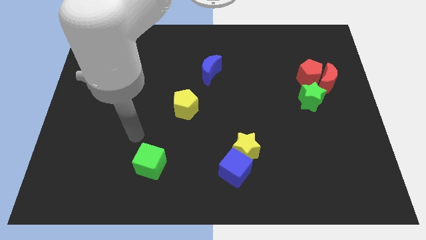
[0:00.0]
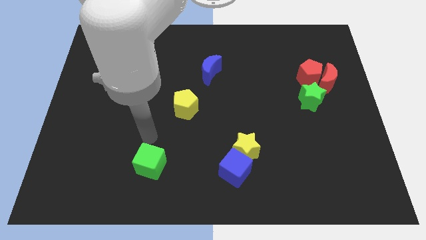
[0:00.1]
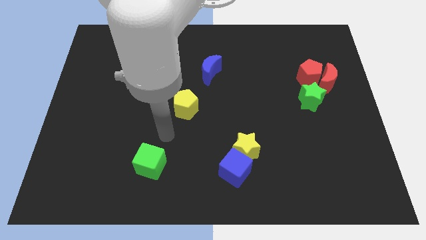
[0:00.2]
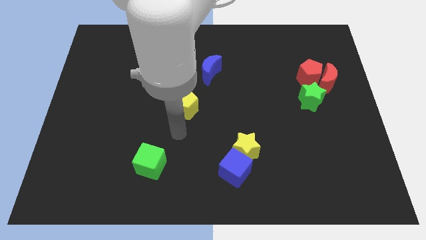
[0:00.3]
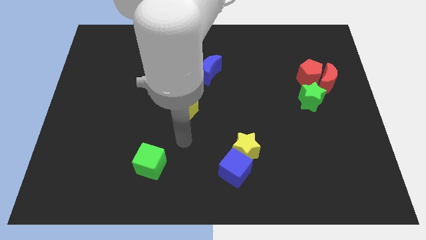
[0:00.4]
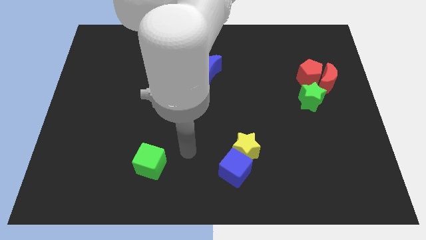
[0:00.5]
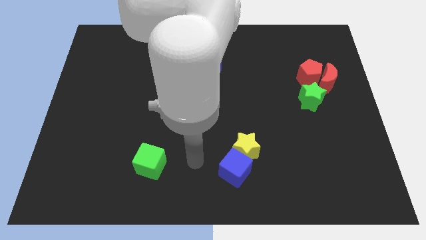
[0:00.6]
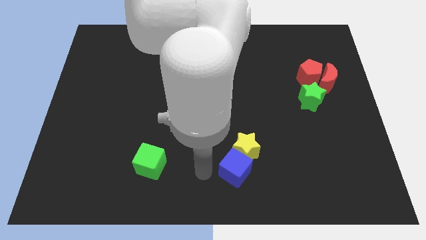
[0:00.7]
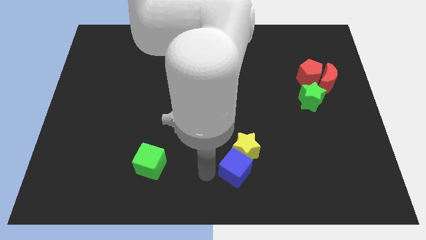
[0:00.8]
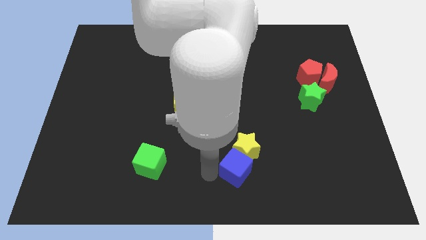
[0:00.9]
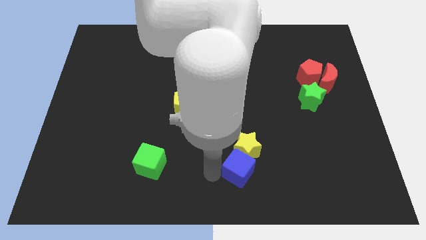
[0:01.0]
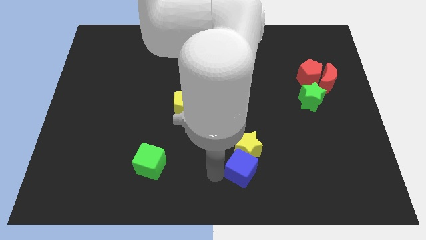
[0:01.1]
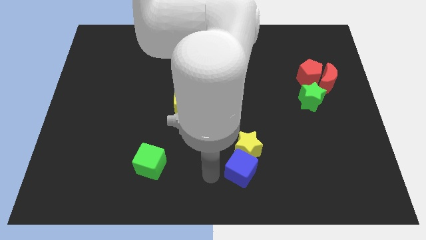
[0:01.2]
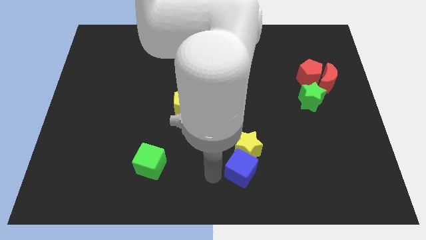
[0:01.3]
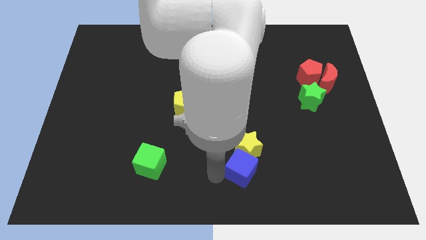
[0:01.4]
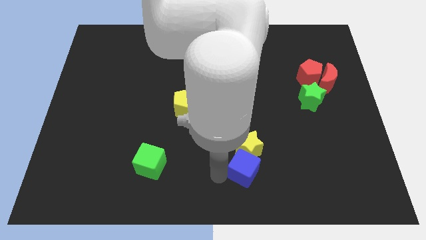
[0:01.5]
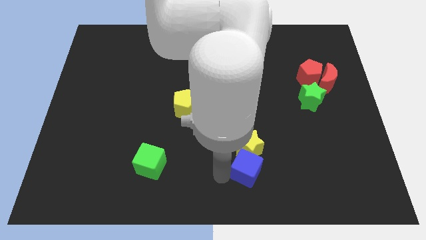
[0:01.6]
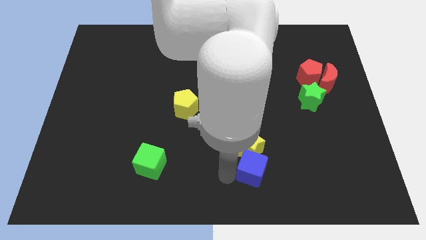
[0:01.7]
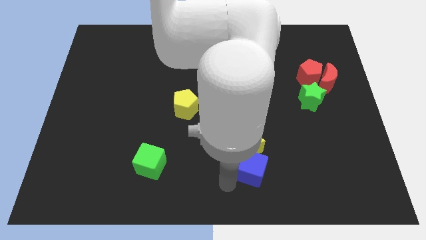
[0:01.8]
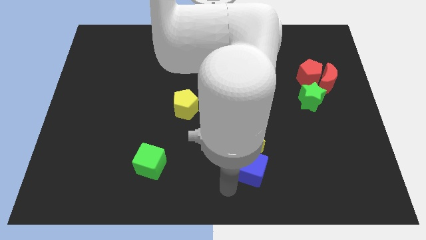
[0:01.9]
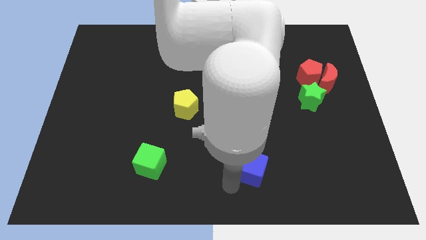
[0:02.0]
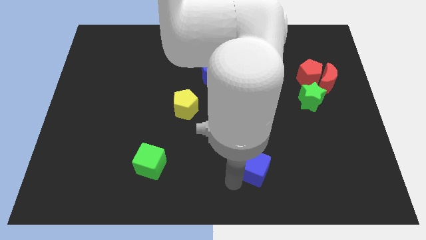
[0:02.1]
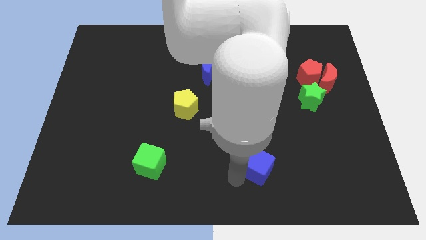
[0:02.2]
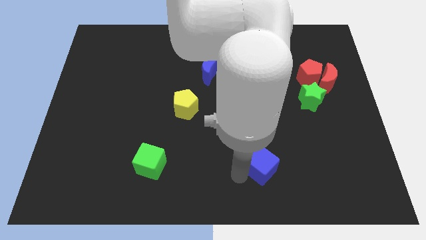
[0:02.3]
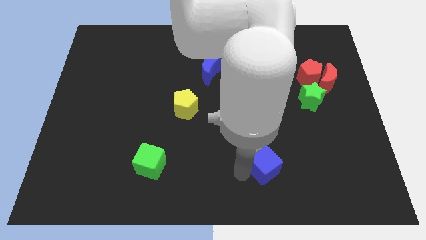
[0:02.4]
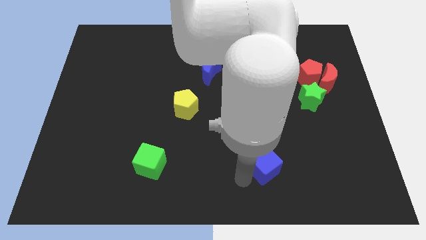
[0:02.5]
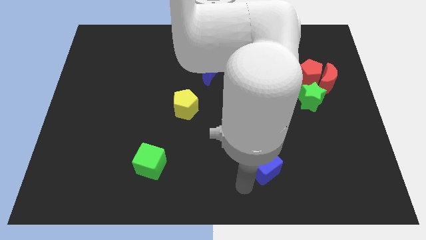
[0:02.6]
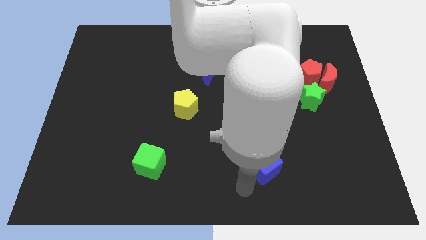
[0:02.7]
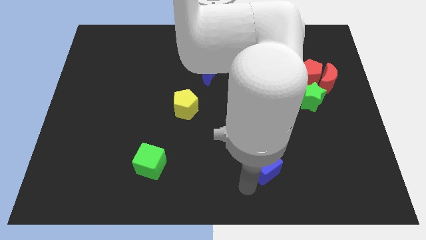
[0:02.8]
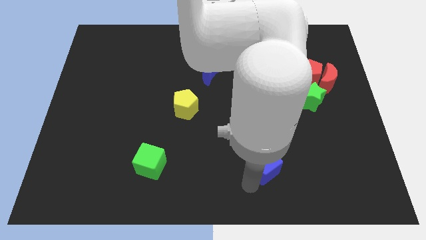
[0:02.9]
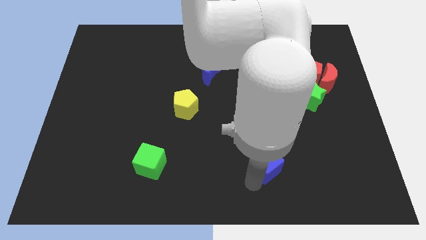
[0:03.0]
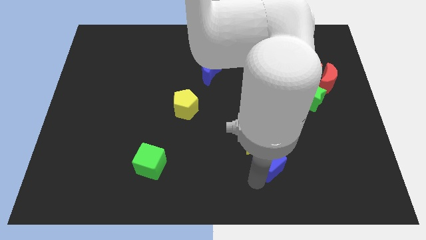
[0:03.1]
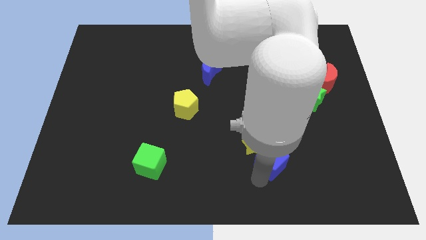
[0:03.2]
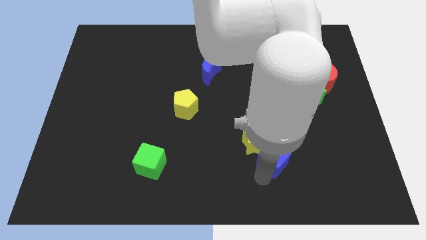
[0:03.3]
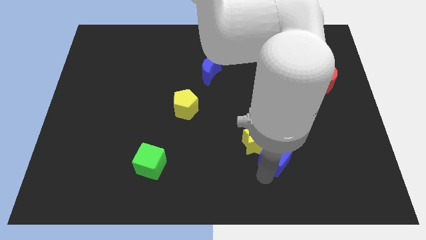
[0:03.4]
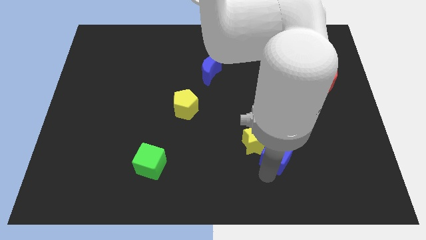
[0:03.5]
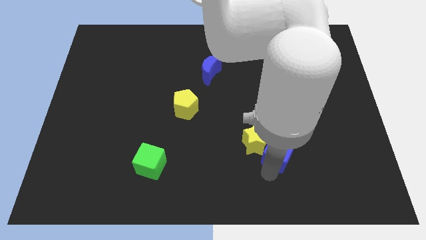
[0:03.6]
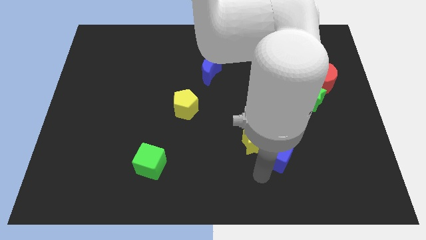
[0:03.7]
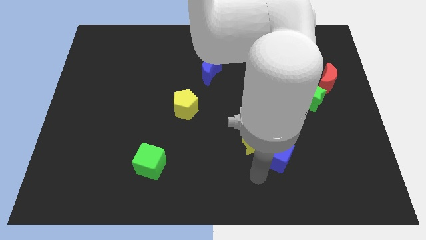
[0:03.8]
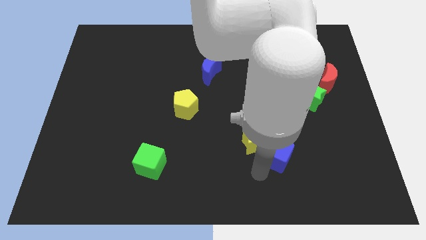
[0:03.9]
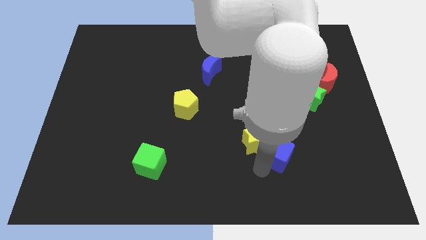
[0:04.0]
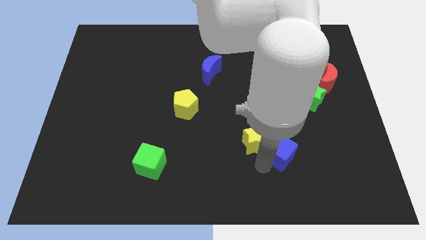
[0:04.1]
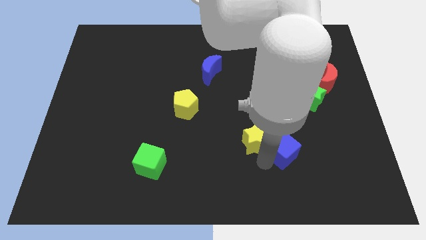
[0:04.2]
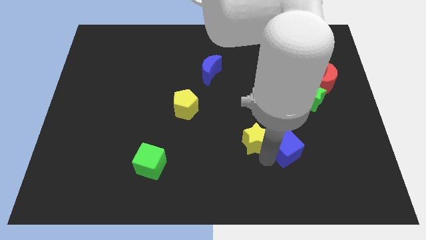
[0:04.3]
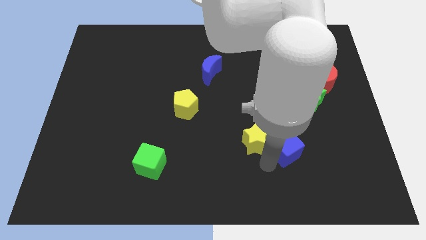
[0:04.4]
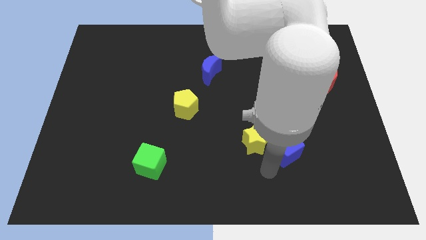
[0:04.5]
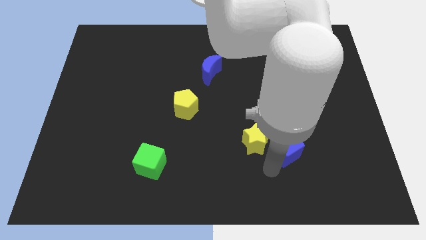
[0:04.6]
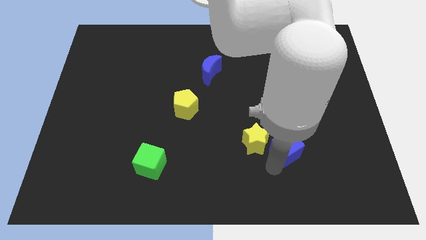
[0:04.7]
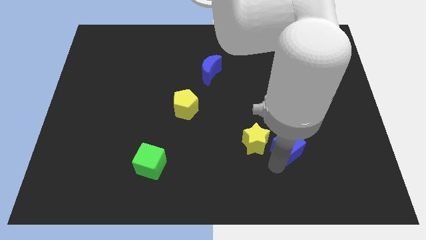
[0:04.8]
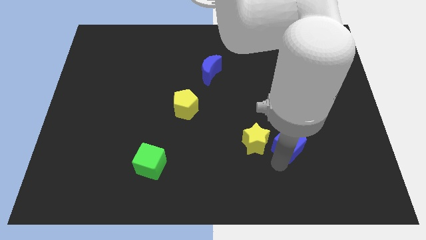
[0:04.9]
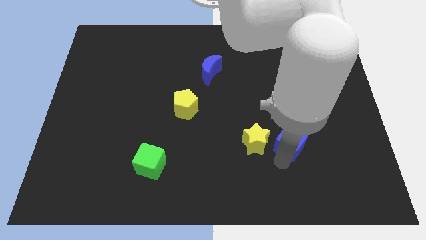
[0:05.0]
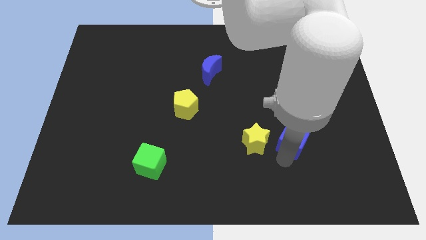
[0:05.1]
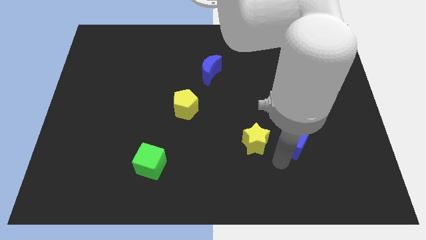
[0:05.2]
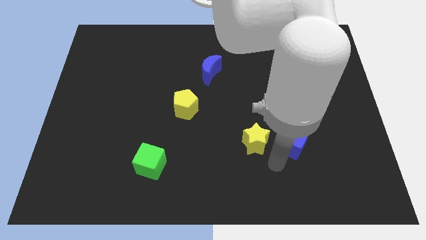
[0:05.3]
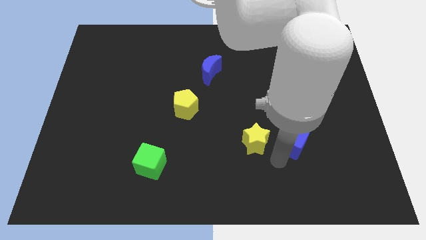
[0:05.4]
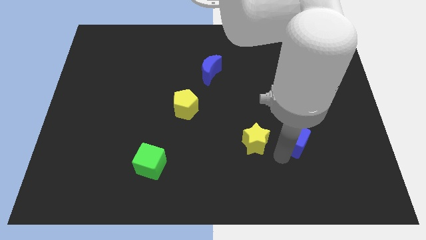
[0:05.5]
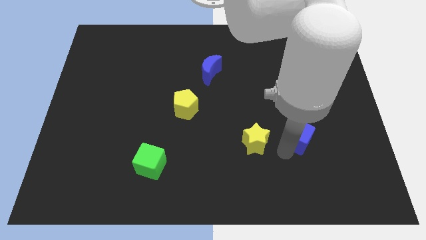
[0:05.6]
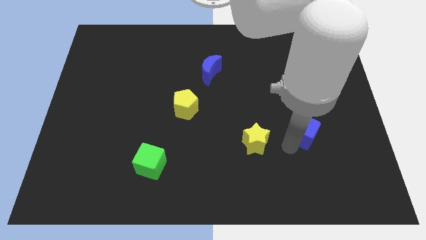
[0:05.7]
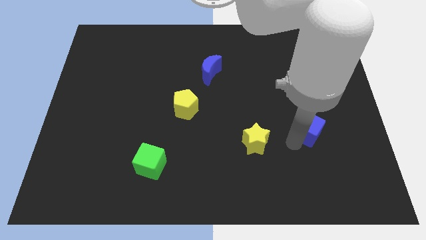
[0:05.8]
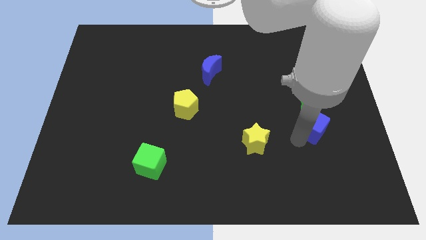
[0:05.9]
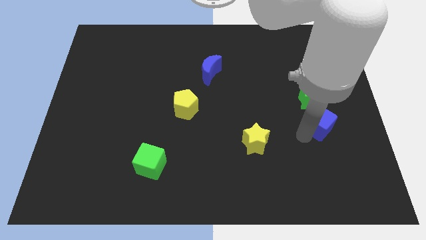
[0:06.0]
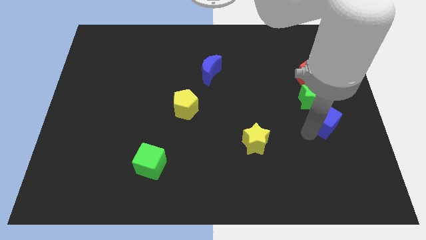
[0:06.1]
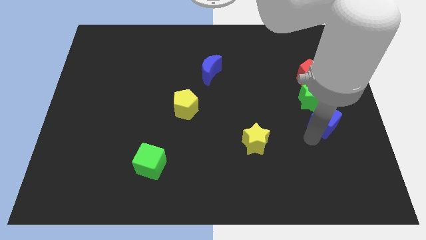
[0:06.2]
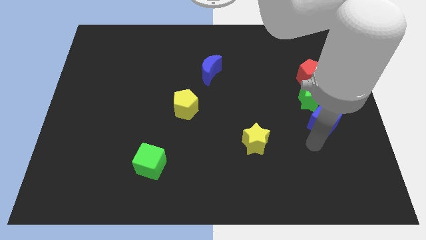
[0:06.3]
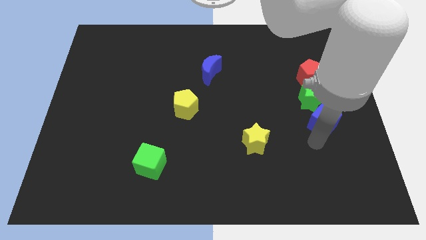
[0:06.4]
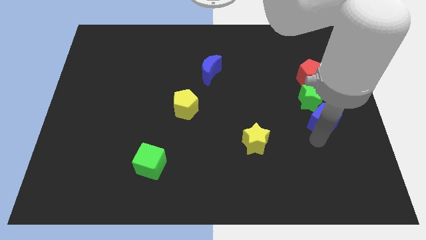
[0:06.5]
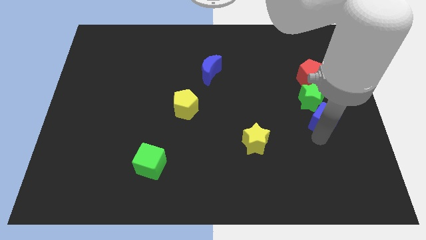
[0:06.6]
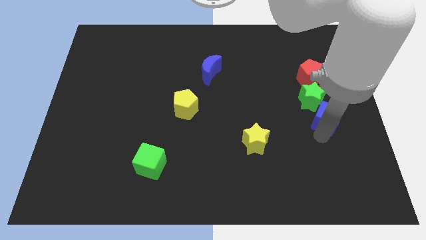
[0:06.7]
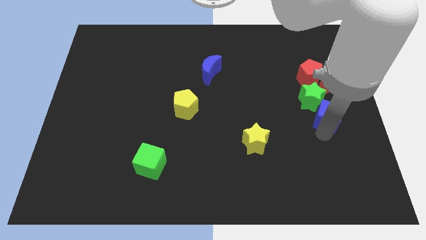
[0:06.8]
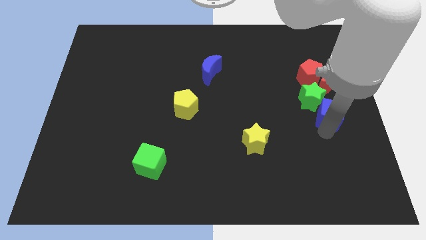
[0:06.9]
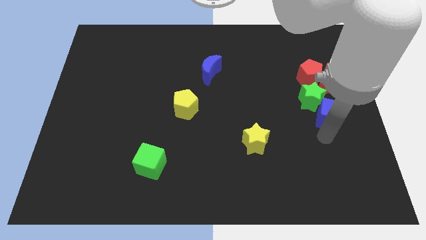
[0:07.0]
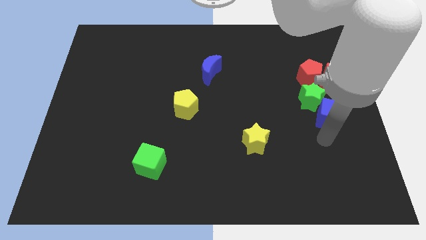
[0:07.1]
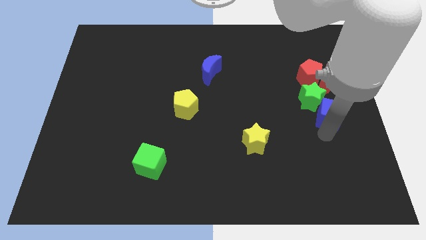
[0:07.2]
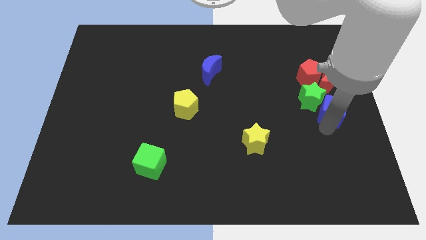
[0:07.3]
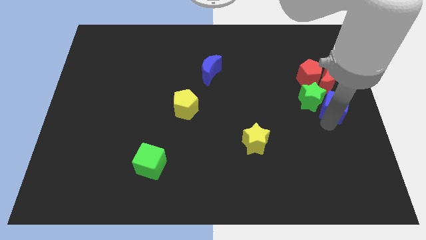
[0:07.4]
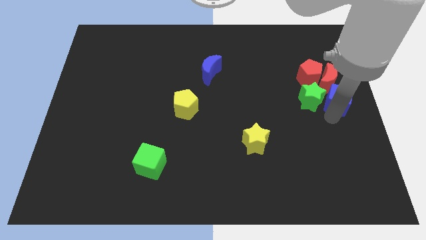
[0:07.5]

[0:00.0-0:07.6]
move the blue cube next to the red moon

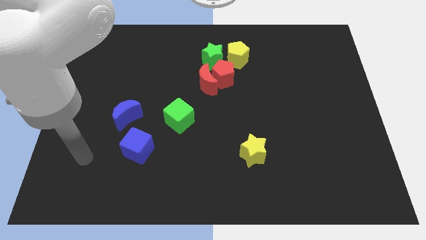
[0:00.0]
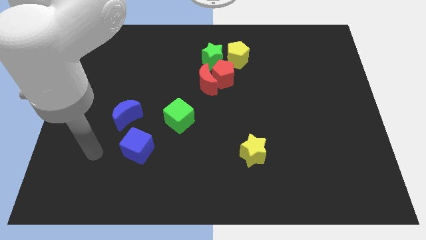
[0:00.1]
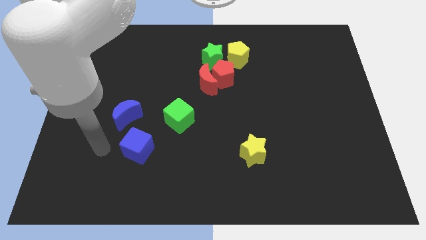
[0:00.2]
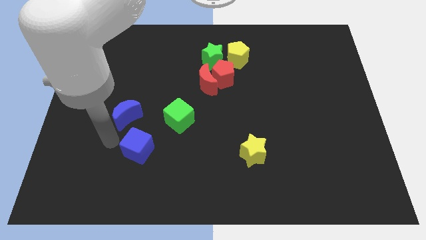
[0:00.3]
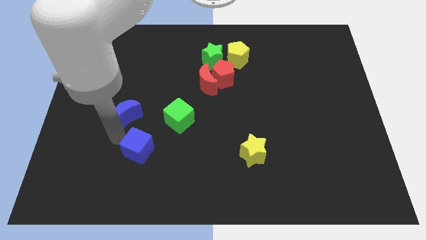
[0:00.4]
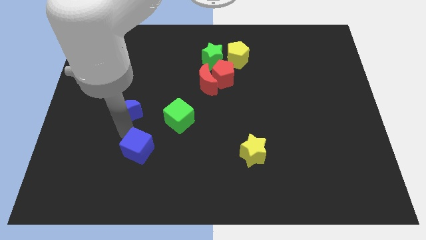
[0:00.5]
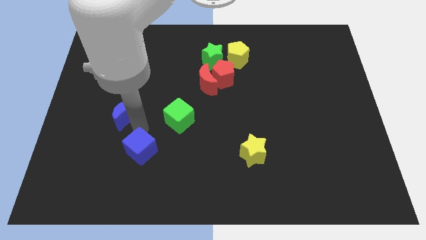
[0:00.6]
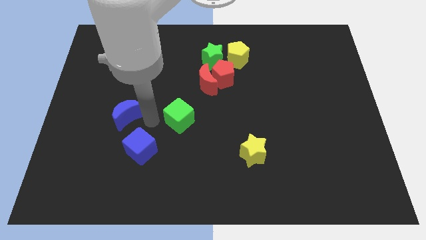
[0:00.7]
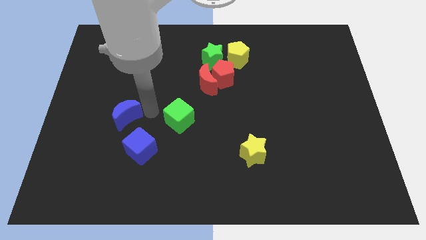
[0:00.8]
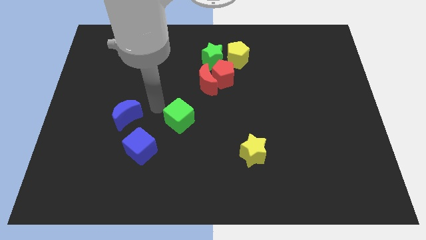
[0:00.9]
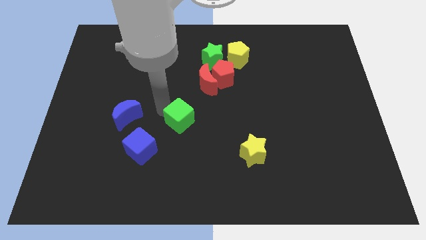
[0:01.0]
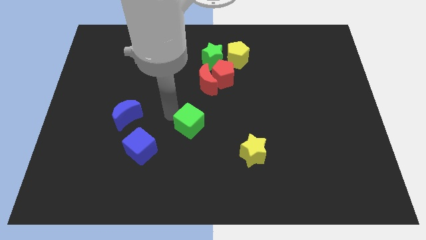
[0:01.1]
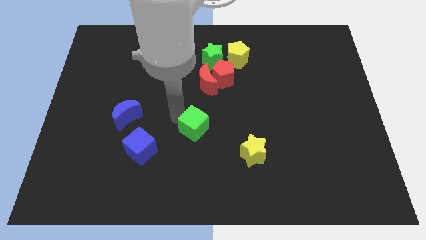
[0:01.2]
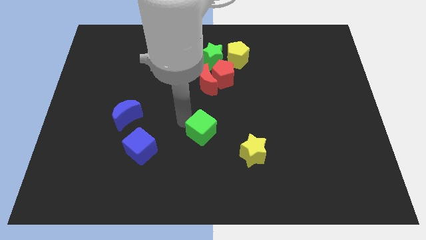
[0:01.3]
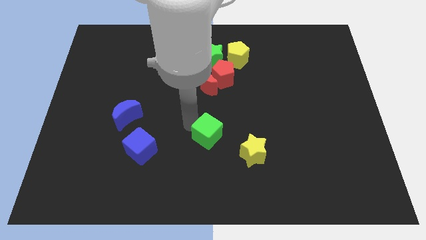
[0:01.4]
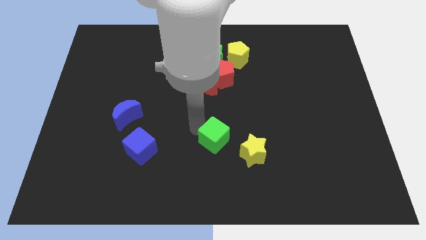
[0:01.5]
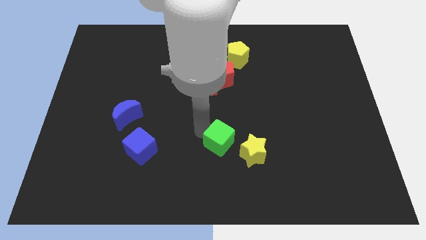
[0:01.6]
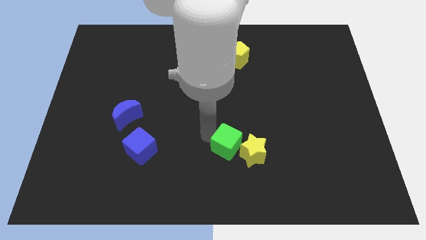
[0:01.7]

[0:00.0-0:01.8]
move the green cube close to the yellow star
